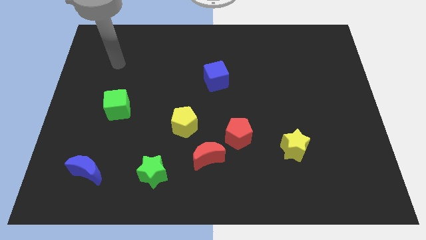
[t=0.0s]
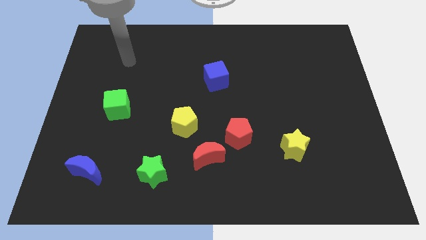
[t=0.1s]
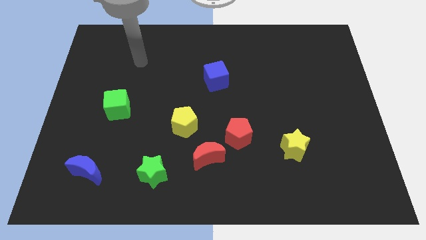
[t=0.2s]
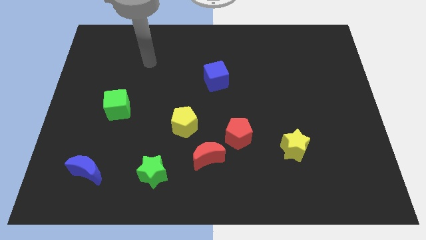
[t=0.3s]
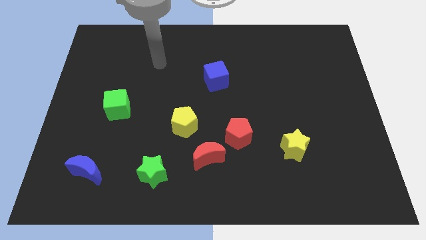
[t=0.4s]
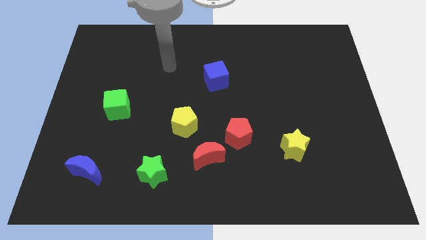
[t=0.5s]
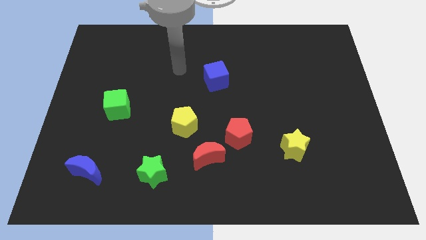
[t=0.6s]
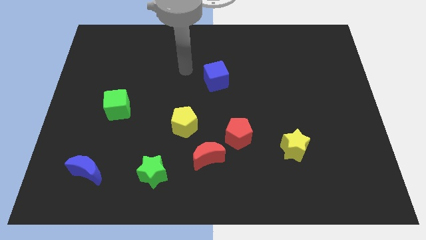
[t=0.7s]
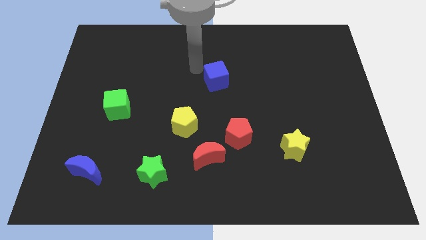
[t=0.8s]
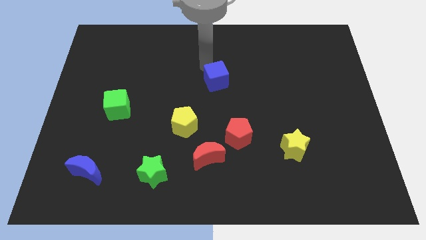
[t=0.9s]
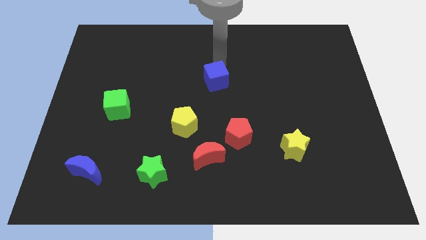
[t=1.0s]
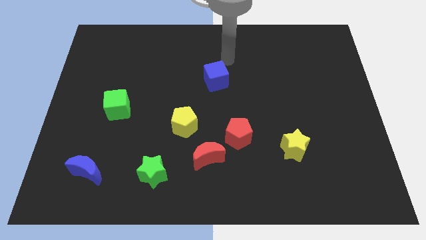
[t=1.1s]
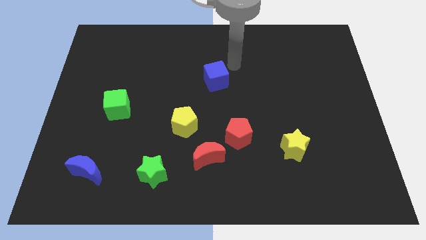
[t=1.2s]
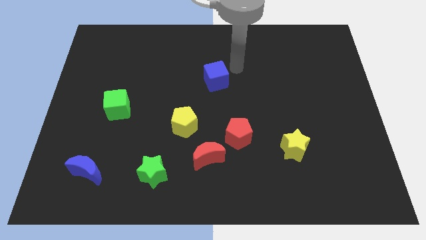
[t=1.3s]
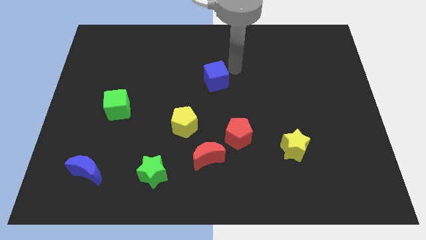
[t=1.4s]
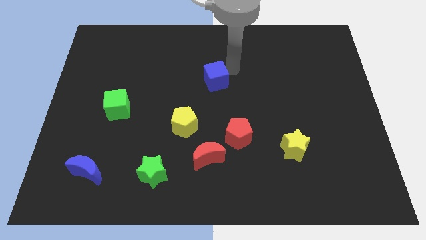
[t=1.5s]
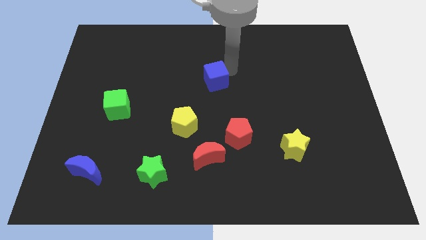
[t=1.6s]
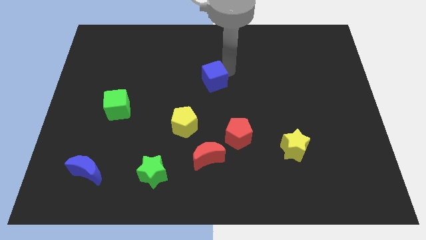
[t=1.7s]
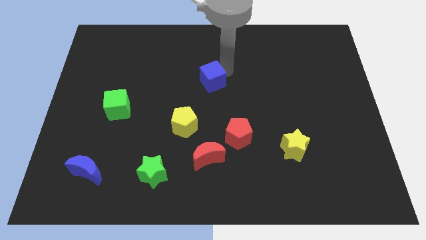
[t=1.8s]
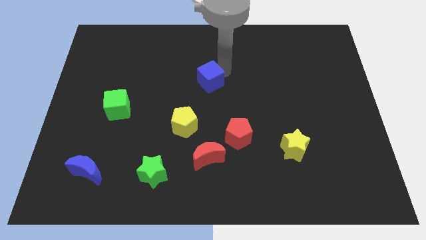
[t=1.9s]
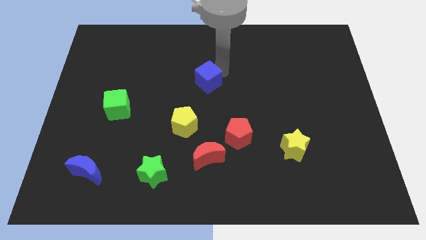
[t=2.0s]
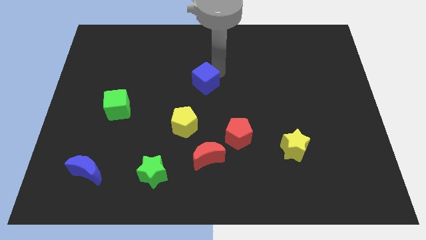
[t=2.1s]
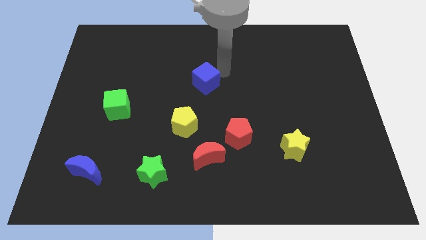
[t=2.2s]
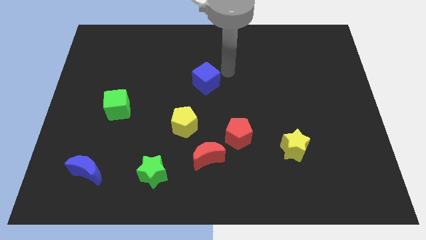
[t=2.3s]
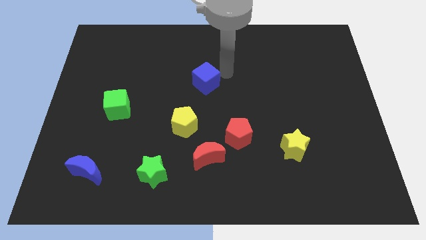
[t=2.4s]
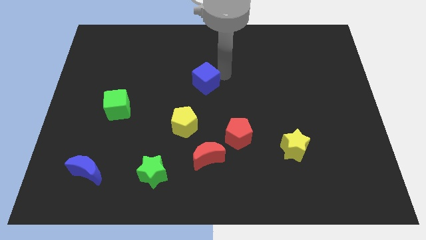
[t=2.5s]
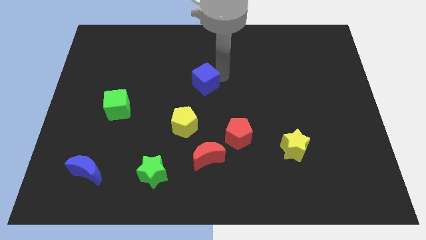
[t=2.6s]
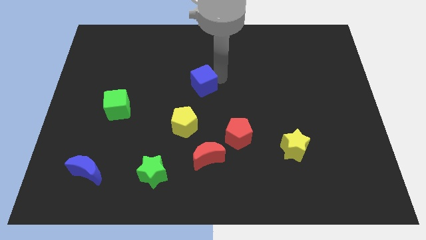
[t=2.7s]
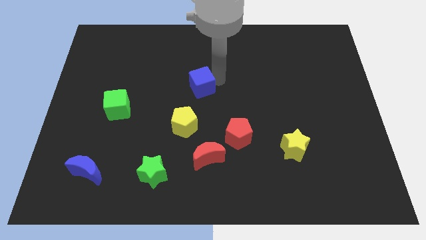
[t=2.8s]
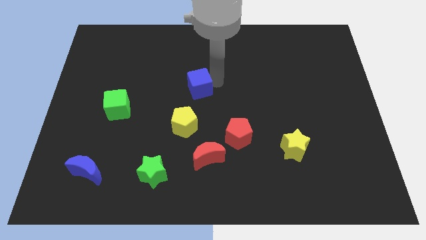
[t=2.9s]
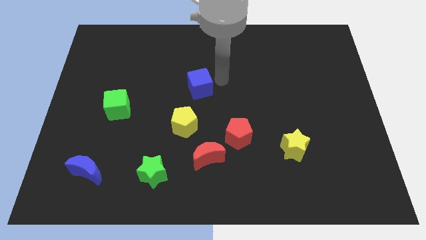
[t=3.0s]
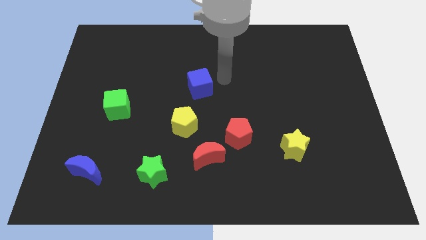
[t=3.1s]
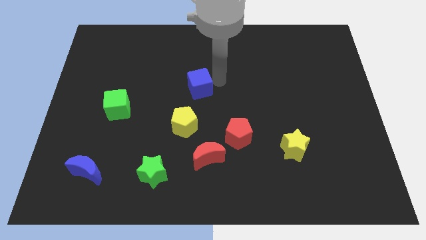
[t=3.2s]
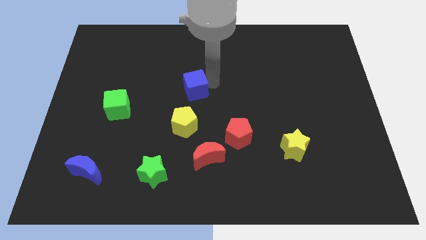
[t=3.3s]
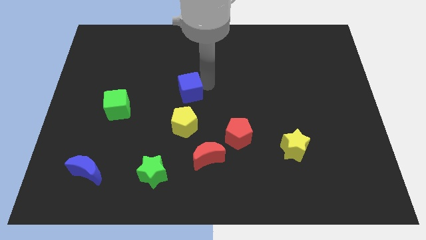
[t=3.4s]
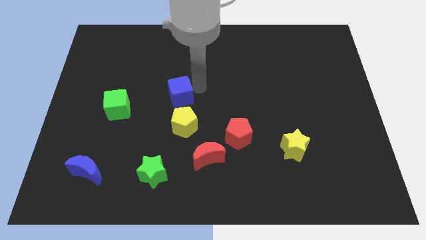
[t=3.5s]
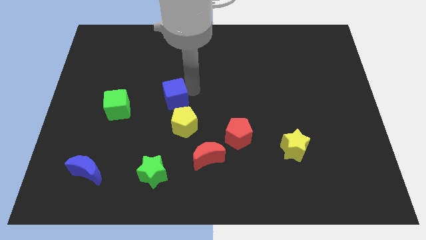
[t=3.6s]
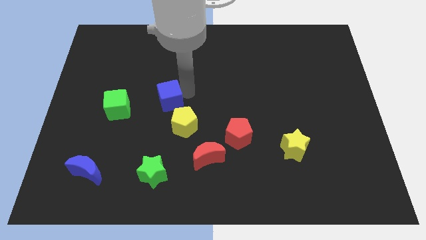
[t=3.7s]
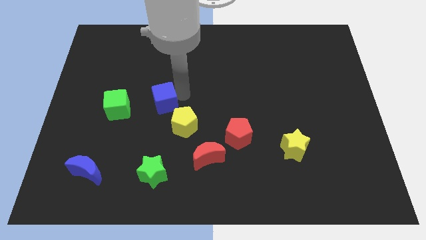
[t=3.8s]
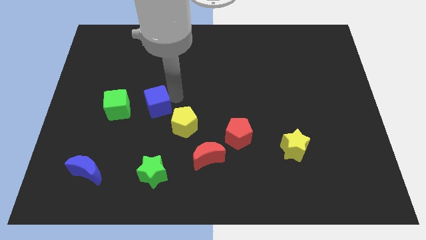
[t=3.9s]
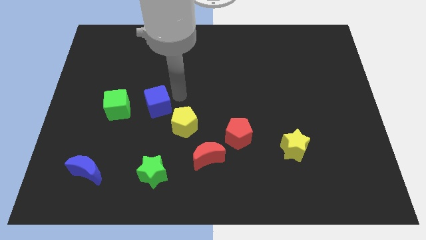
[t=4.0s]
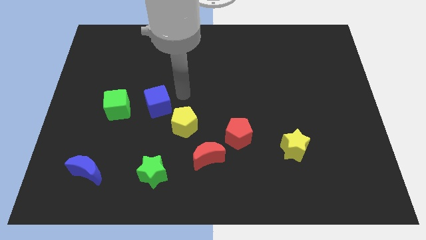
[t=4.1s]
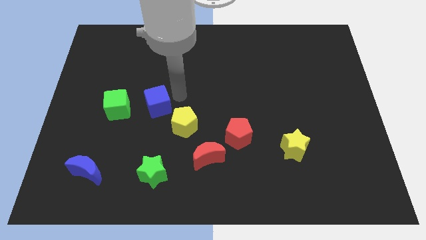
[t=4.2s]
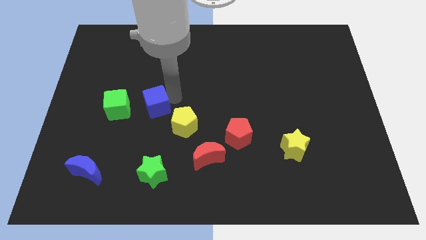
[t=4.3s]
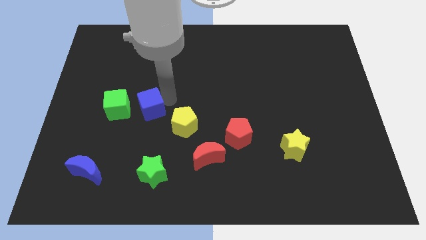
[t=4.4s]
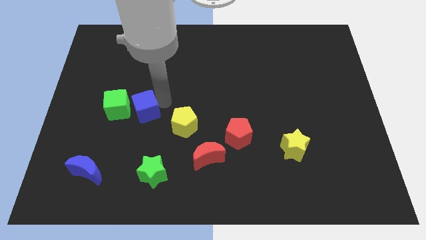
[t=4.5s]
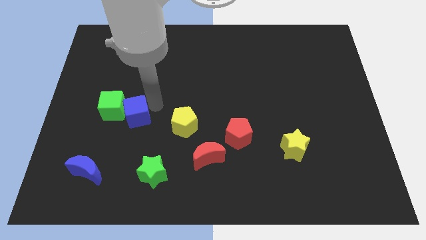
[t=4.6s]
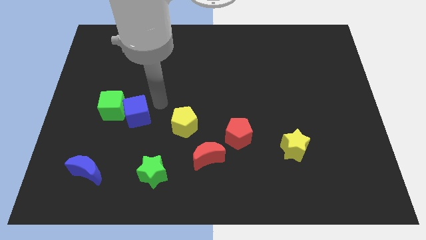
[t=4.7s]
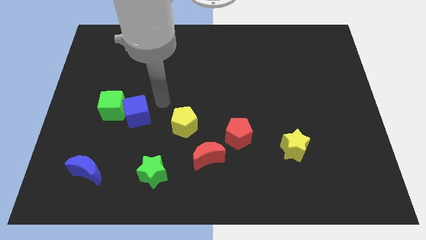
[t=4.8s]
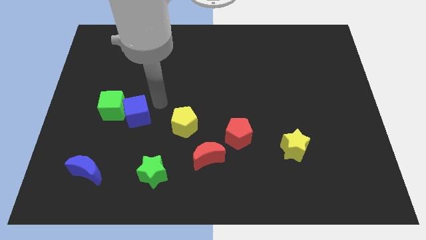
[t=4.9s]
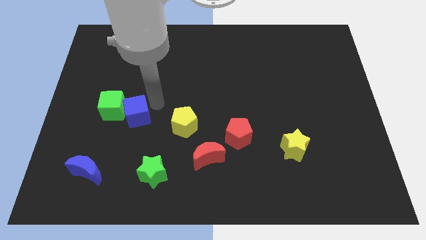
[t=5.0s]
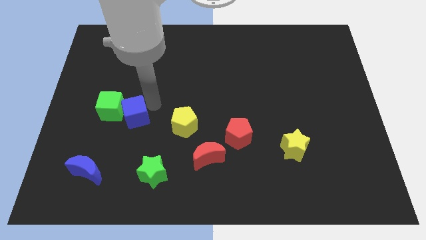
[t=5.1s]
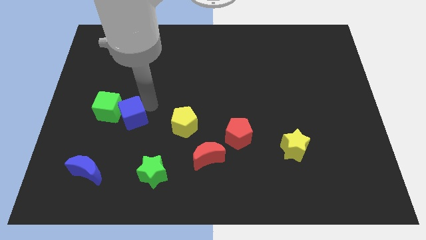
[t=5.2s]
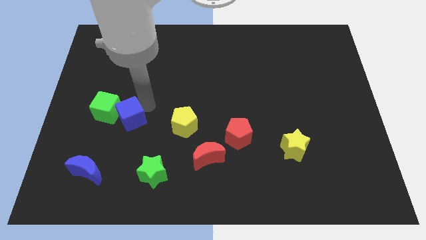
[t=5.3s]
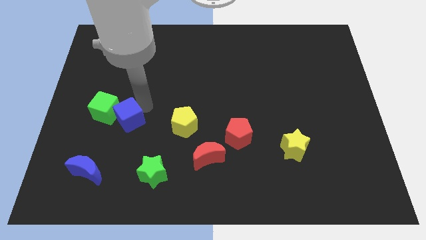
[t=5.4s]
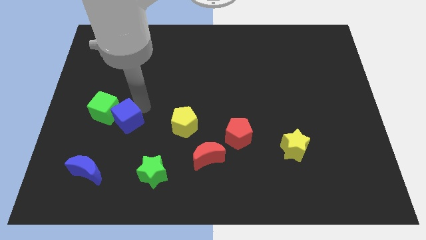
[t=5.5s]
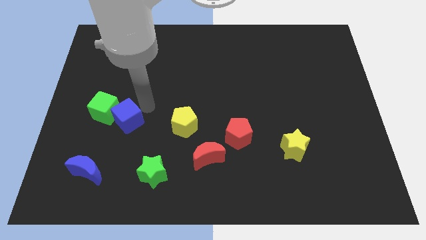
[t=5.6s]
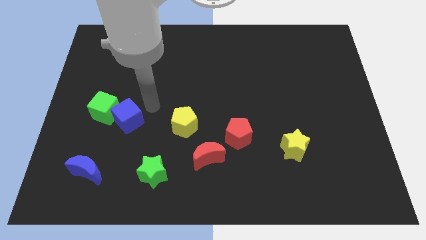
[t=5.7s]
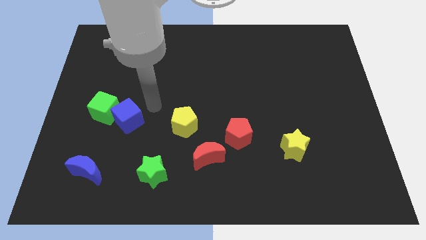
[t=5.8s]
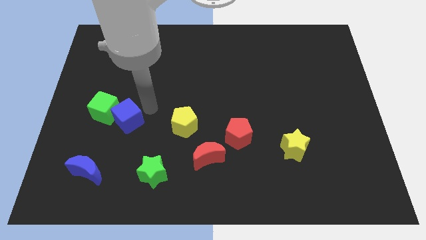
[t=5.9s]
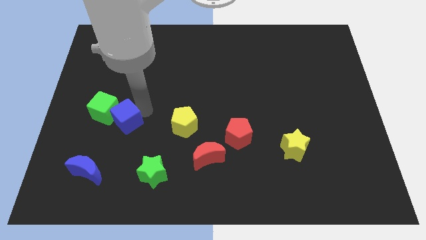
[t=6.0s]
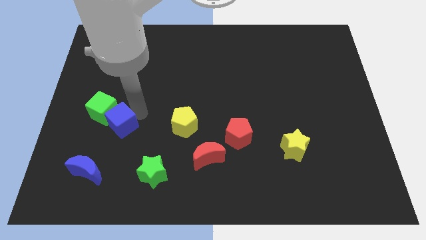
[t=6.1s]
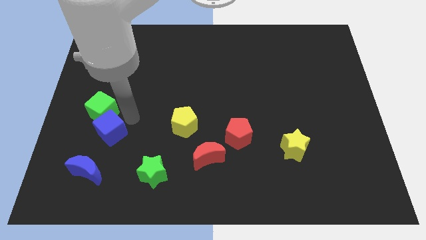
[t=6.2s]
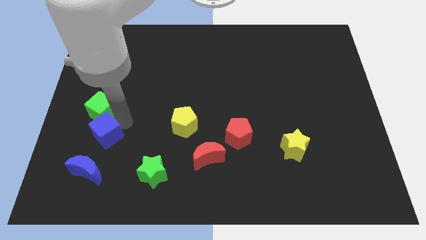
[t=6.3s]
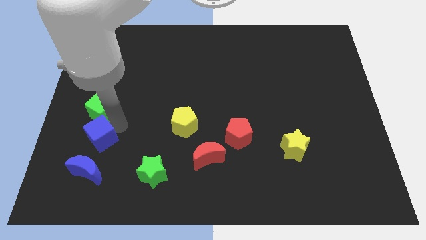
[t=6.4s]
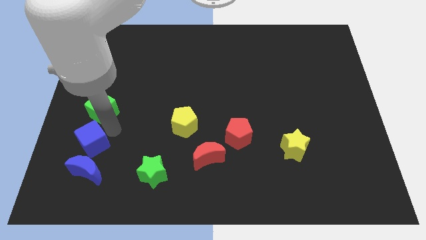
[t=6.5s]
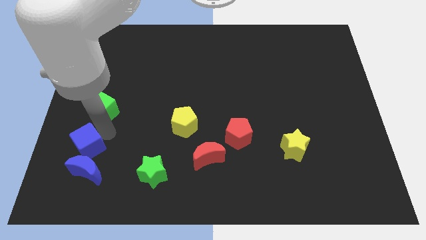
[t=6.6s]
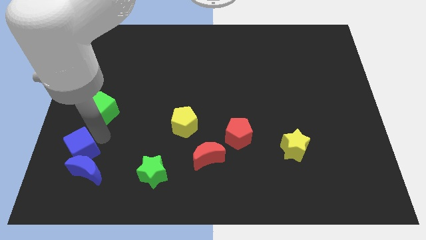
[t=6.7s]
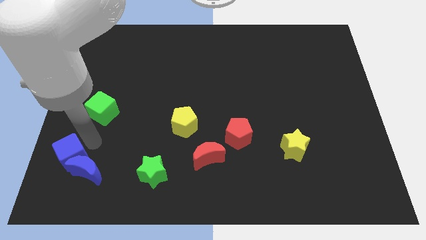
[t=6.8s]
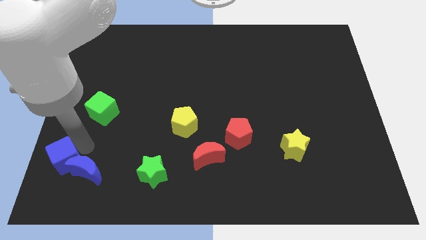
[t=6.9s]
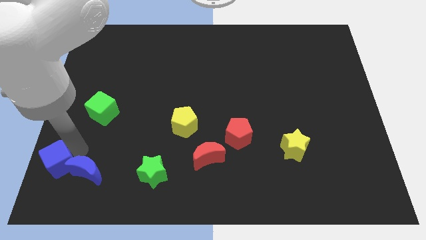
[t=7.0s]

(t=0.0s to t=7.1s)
put the blue cube to the lower left corner
